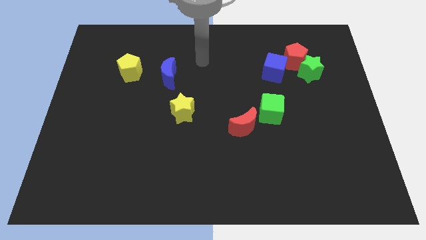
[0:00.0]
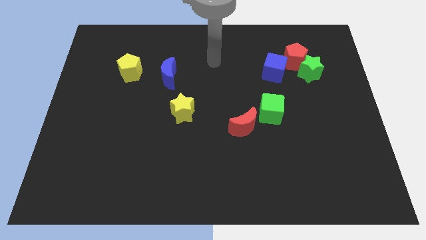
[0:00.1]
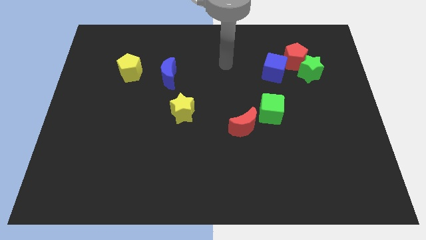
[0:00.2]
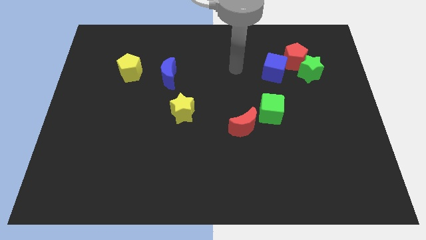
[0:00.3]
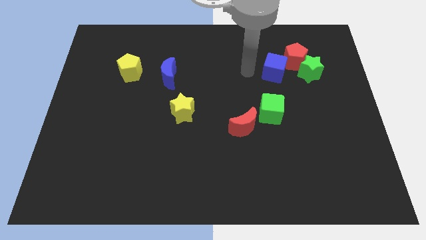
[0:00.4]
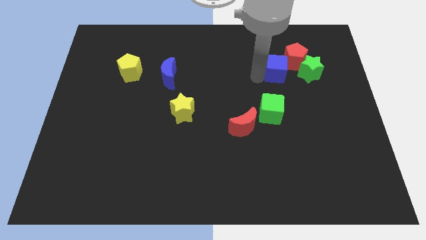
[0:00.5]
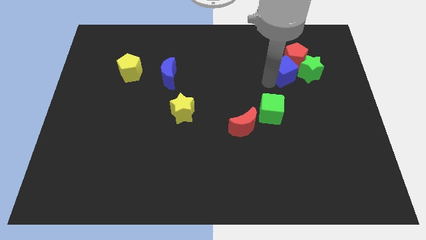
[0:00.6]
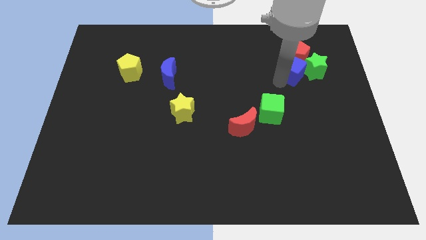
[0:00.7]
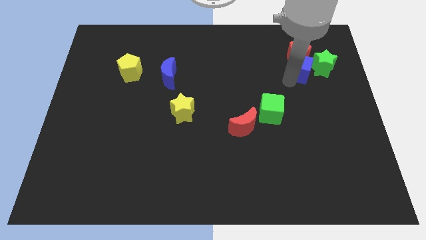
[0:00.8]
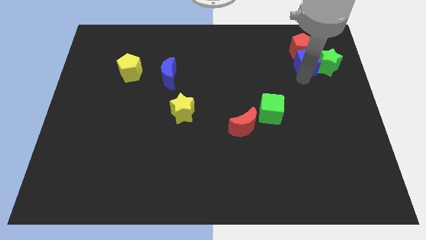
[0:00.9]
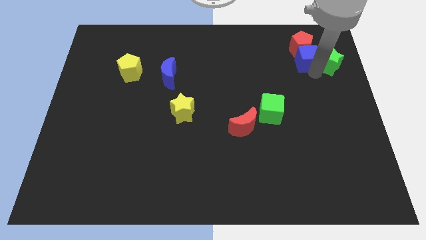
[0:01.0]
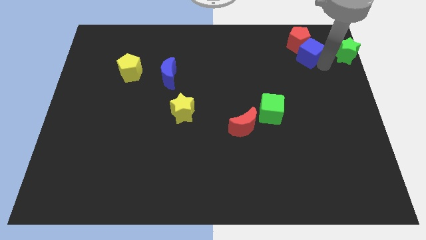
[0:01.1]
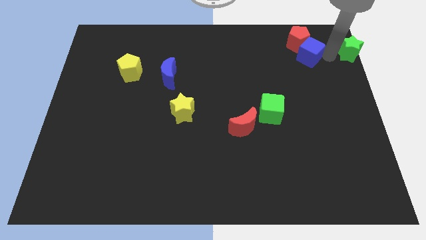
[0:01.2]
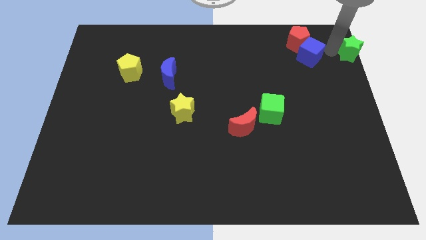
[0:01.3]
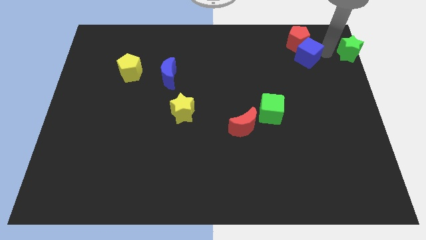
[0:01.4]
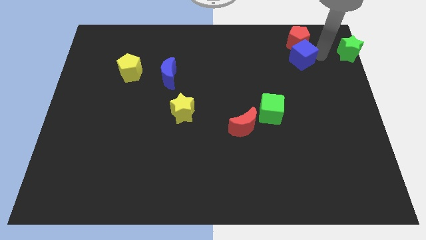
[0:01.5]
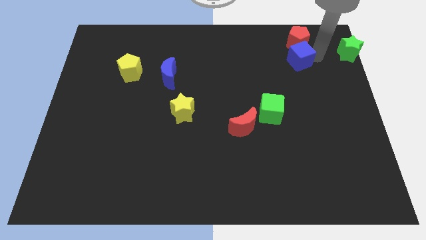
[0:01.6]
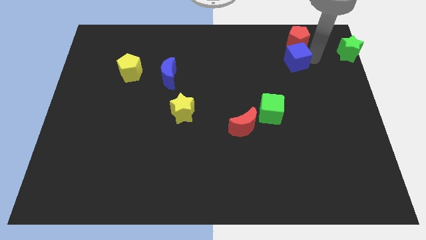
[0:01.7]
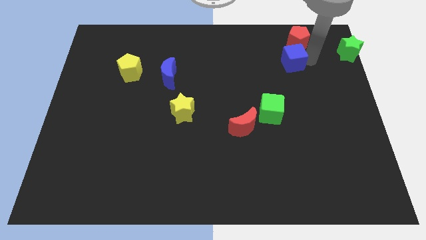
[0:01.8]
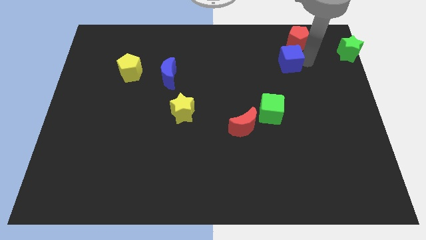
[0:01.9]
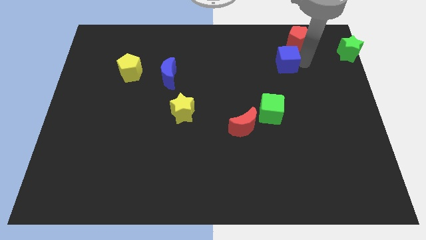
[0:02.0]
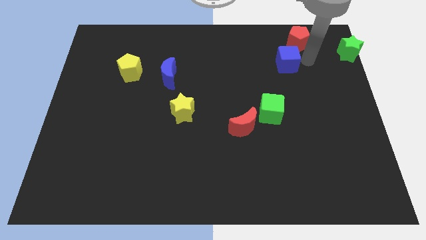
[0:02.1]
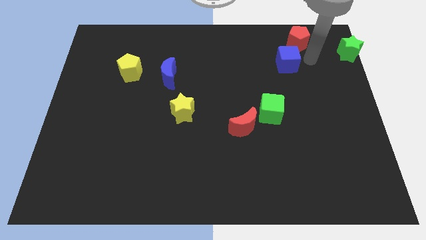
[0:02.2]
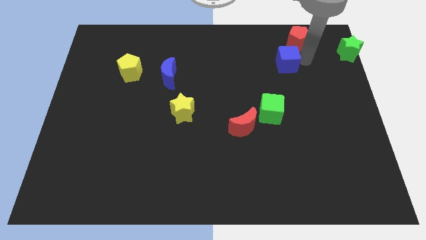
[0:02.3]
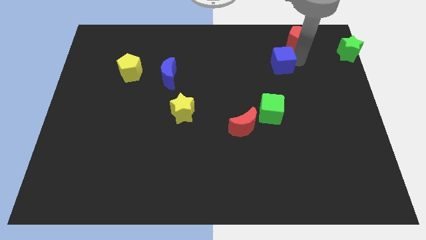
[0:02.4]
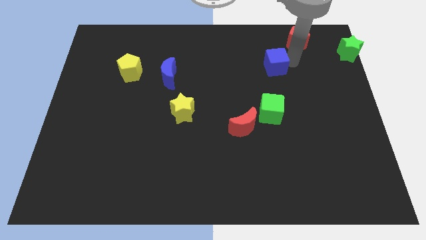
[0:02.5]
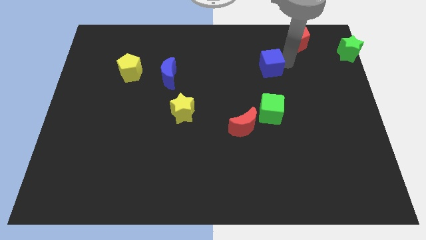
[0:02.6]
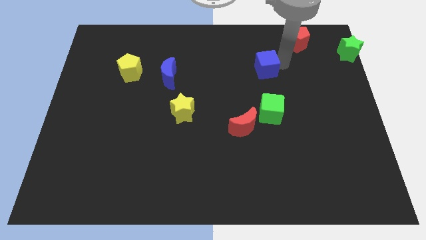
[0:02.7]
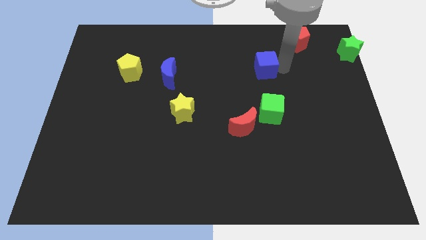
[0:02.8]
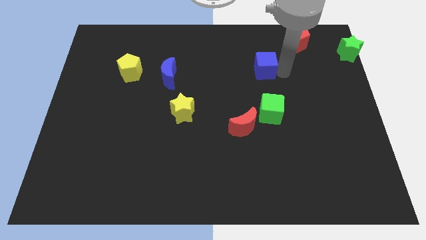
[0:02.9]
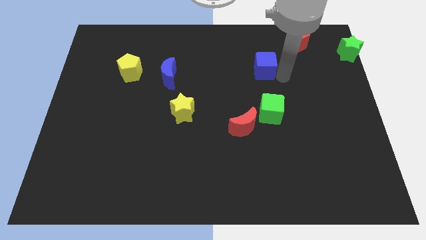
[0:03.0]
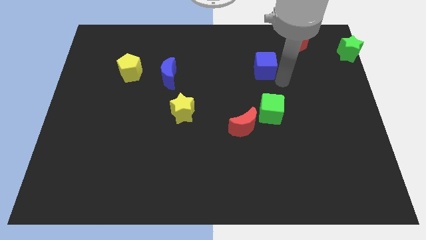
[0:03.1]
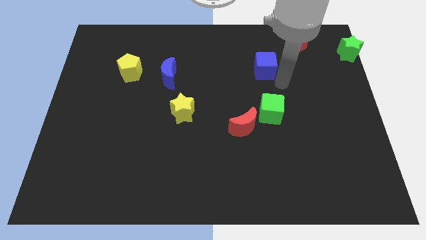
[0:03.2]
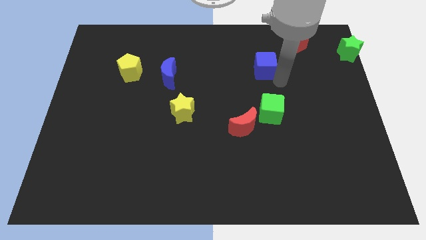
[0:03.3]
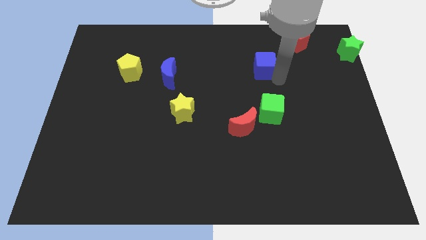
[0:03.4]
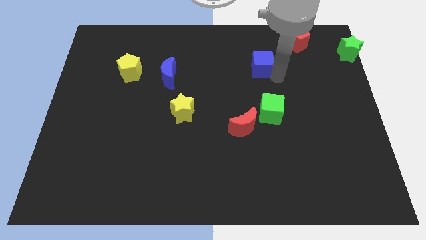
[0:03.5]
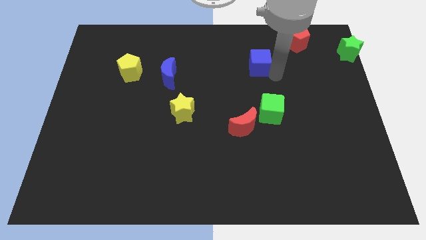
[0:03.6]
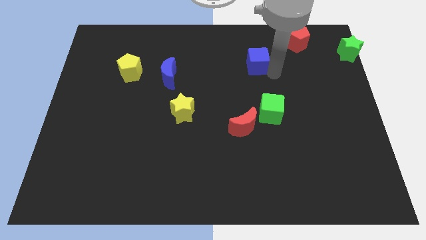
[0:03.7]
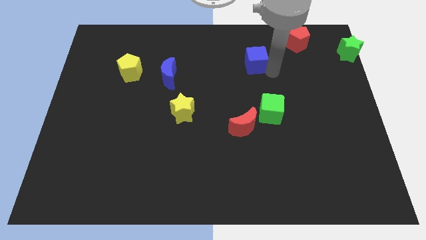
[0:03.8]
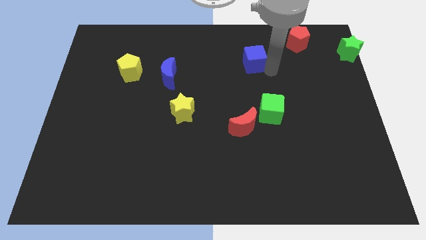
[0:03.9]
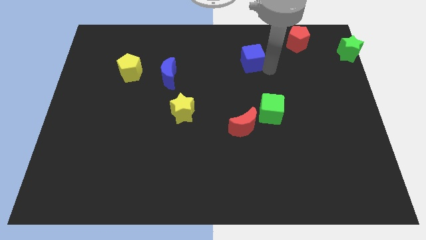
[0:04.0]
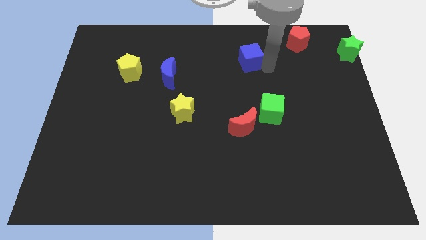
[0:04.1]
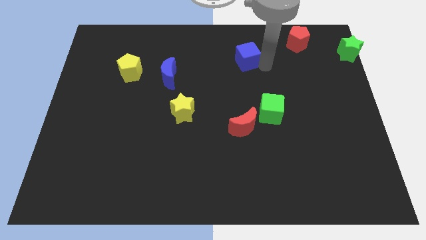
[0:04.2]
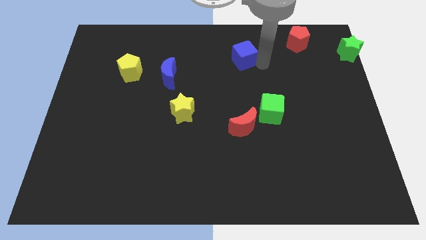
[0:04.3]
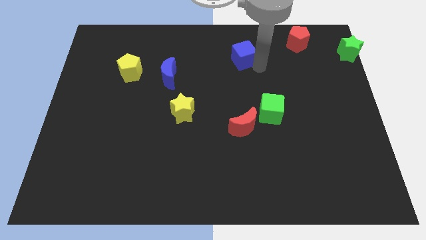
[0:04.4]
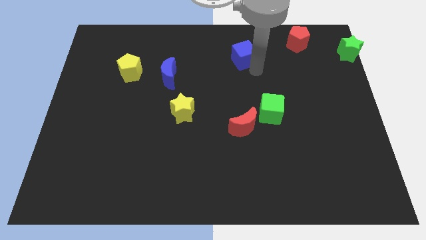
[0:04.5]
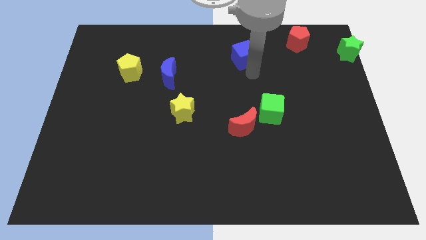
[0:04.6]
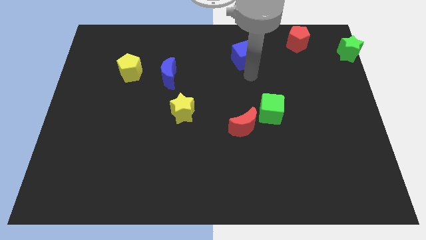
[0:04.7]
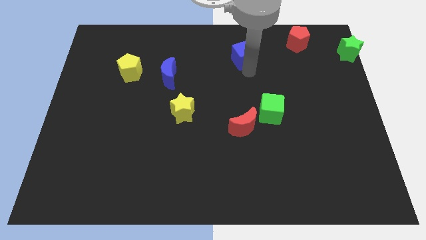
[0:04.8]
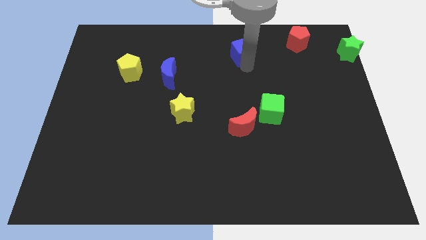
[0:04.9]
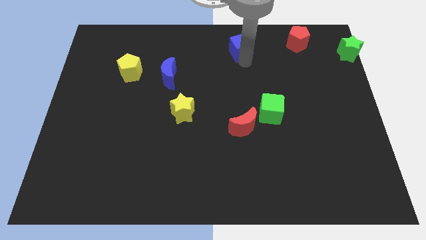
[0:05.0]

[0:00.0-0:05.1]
push the blue cube to the top side
